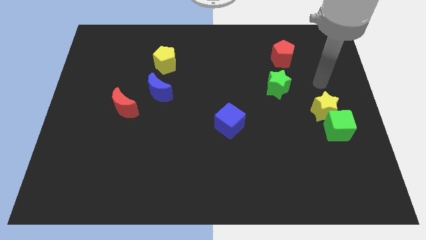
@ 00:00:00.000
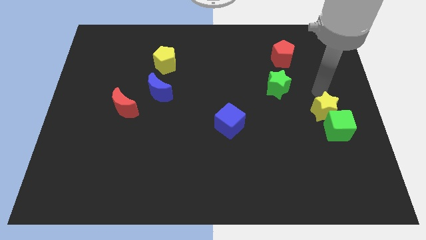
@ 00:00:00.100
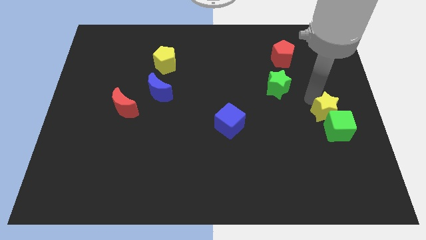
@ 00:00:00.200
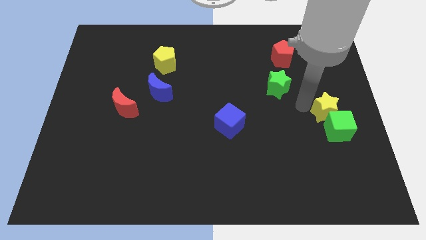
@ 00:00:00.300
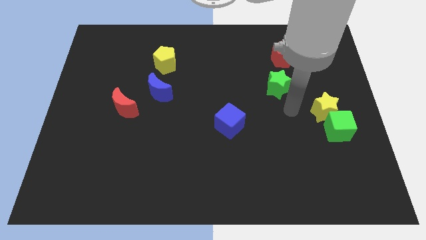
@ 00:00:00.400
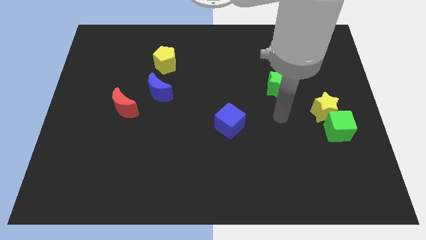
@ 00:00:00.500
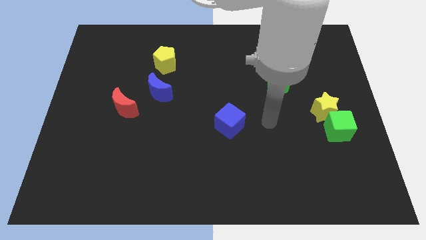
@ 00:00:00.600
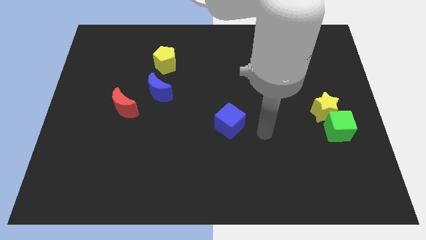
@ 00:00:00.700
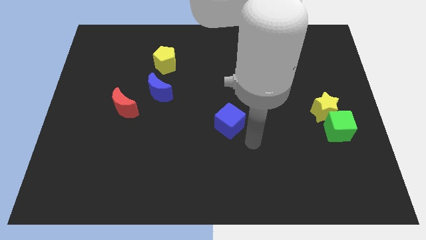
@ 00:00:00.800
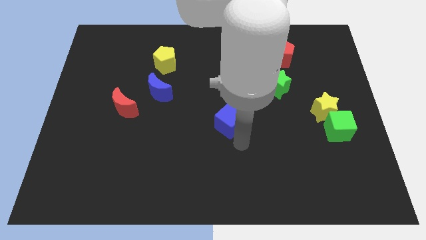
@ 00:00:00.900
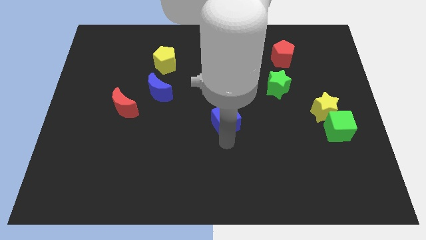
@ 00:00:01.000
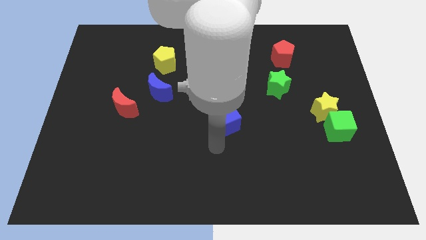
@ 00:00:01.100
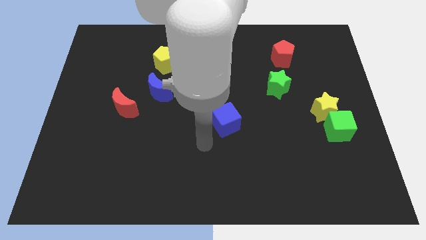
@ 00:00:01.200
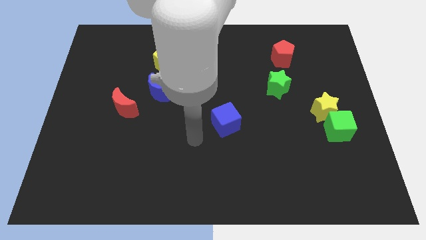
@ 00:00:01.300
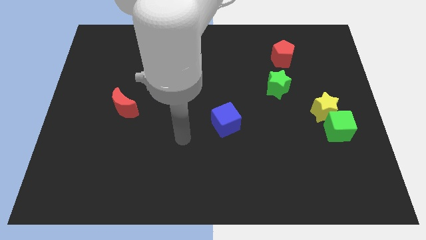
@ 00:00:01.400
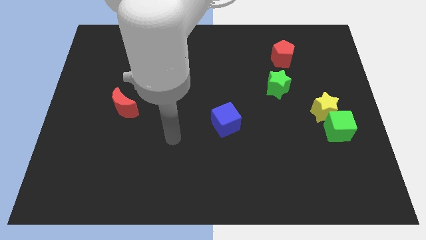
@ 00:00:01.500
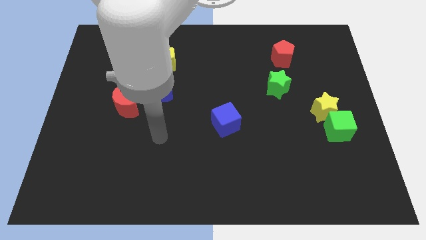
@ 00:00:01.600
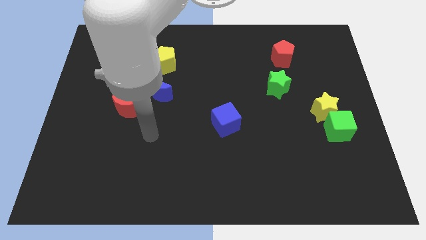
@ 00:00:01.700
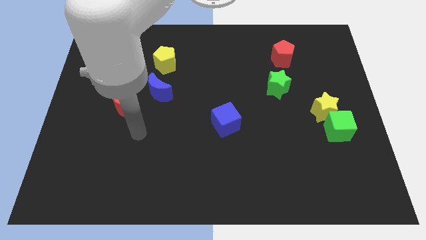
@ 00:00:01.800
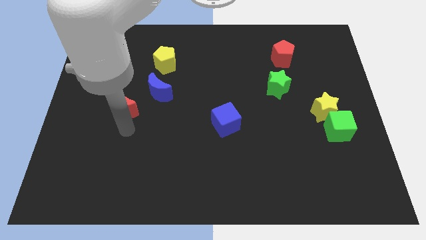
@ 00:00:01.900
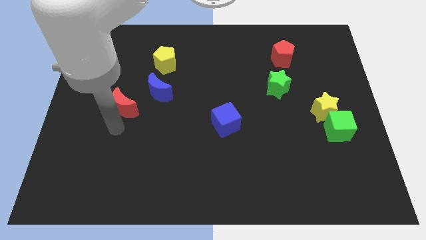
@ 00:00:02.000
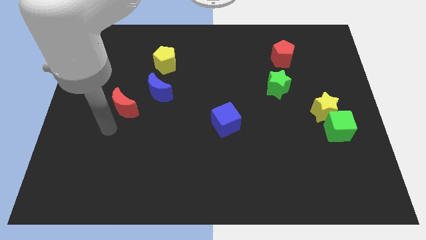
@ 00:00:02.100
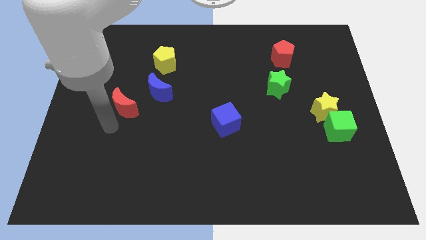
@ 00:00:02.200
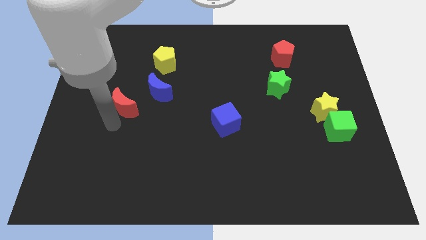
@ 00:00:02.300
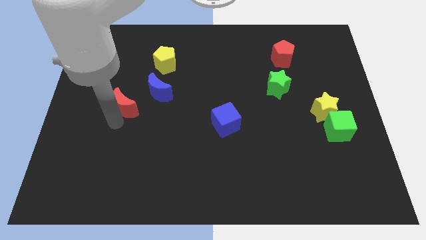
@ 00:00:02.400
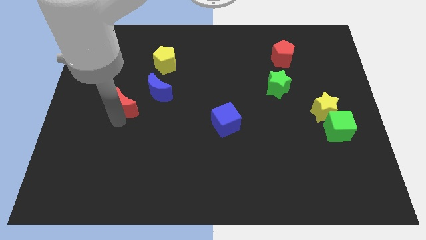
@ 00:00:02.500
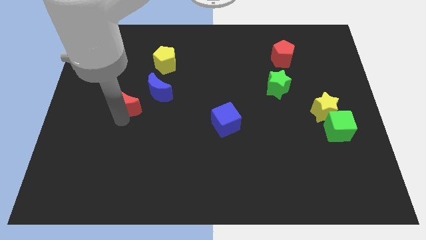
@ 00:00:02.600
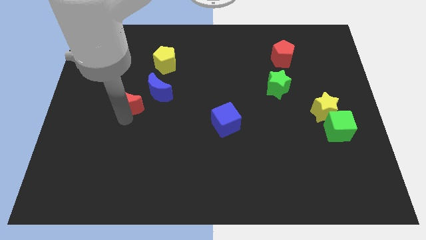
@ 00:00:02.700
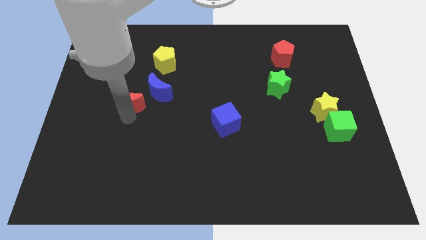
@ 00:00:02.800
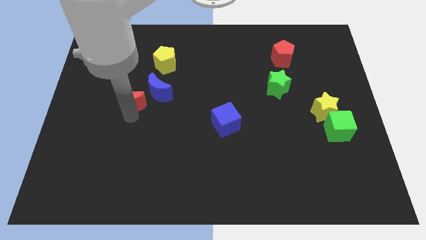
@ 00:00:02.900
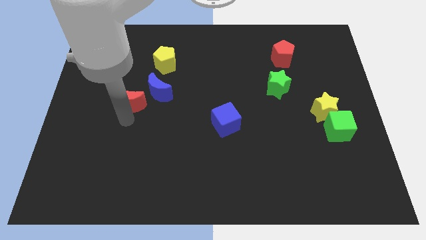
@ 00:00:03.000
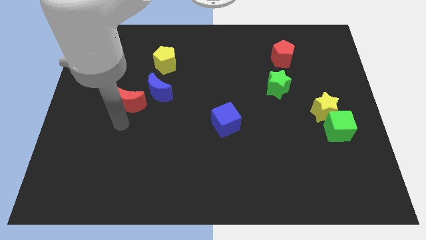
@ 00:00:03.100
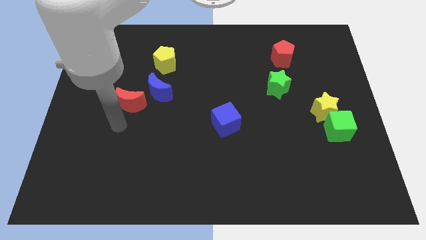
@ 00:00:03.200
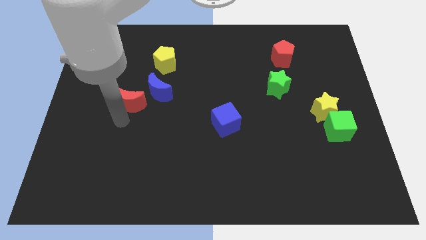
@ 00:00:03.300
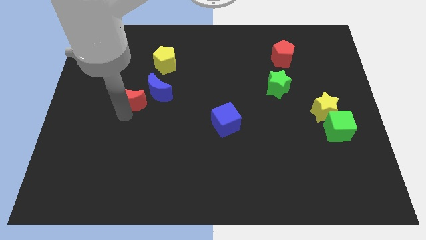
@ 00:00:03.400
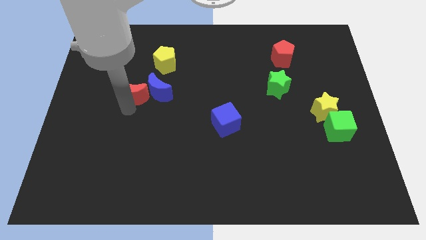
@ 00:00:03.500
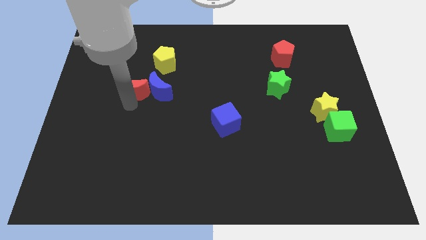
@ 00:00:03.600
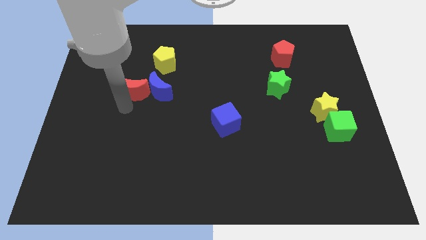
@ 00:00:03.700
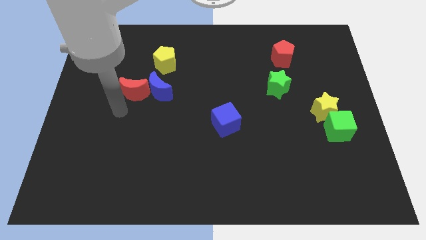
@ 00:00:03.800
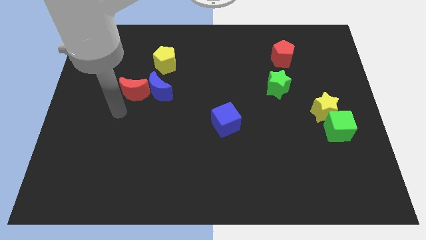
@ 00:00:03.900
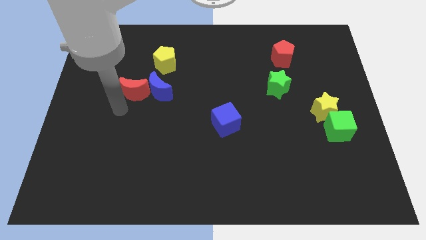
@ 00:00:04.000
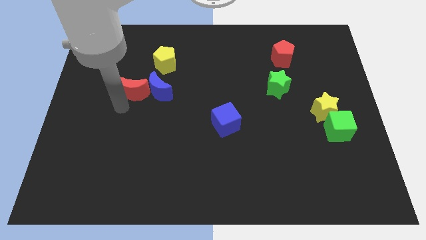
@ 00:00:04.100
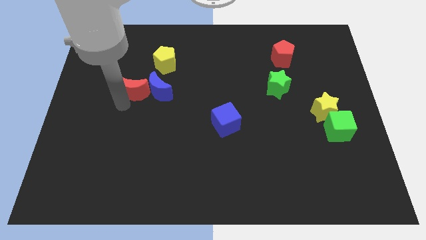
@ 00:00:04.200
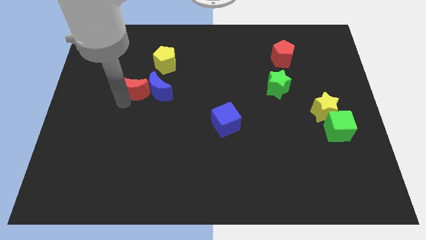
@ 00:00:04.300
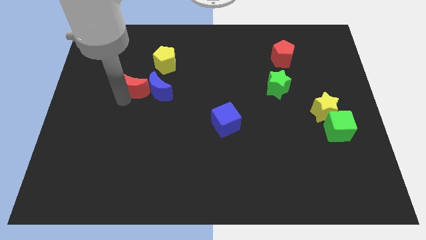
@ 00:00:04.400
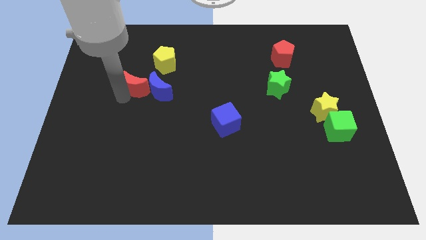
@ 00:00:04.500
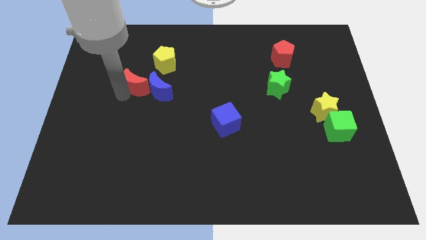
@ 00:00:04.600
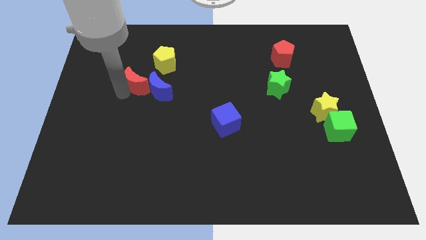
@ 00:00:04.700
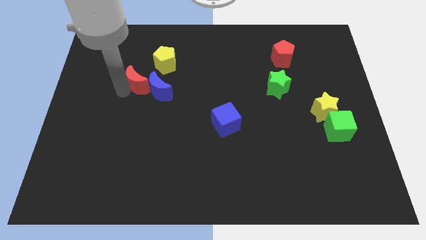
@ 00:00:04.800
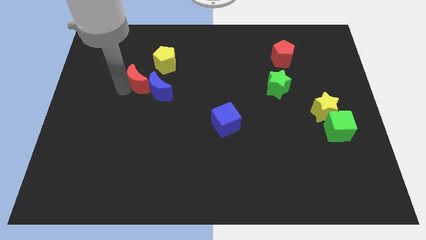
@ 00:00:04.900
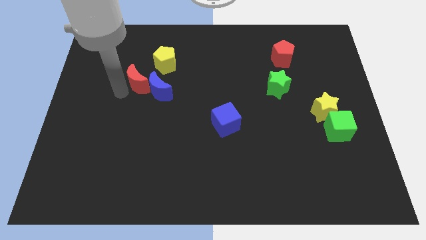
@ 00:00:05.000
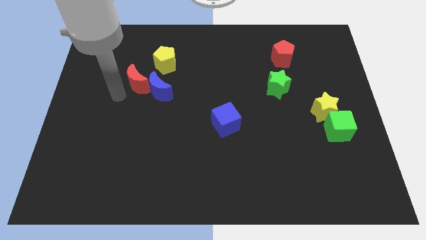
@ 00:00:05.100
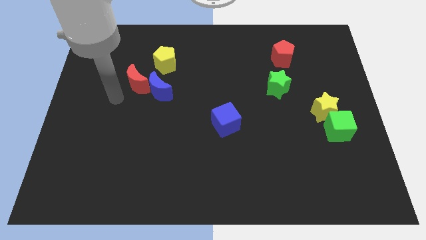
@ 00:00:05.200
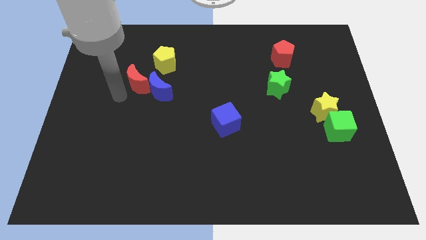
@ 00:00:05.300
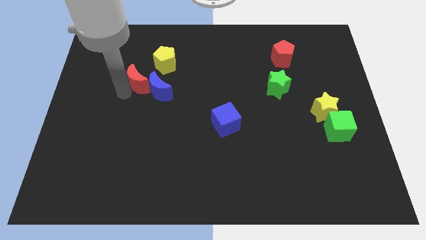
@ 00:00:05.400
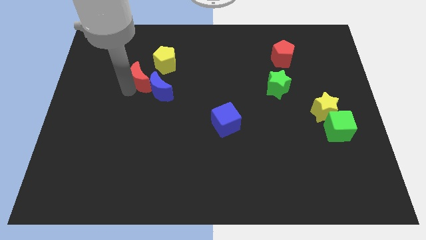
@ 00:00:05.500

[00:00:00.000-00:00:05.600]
move the red moon up and to the right diagonally slightly

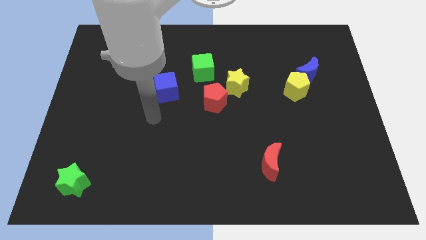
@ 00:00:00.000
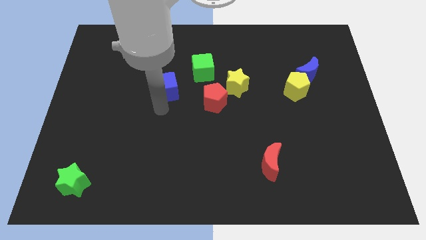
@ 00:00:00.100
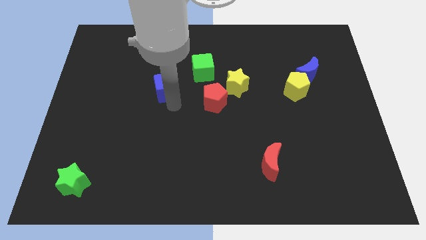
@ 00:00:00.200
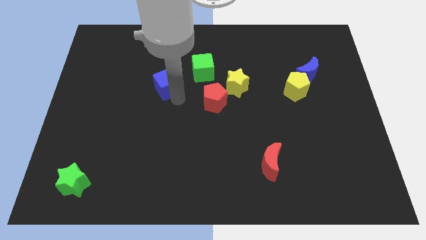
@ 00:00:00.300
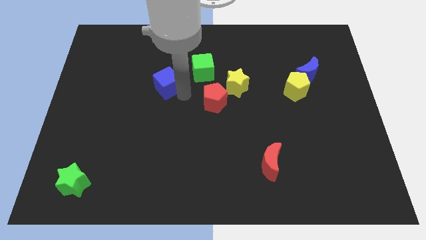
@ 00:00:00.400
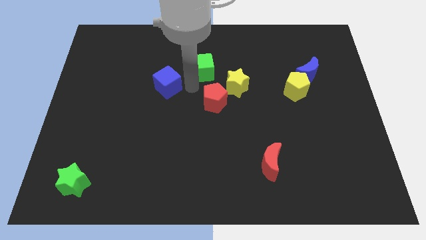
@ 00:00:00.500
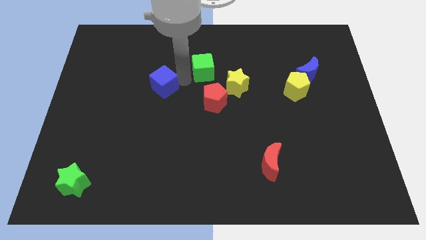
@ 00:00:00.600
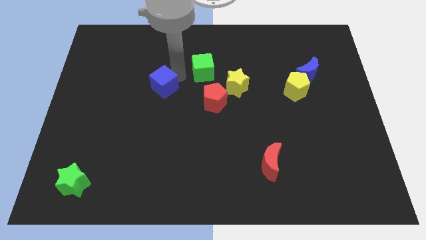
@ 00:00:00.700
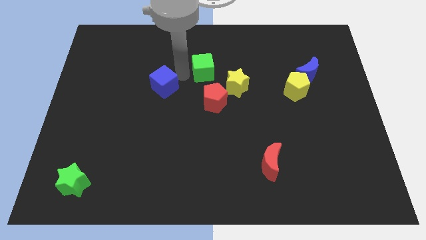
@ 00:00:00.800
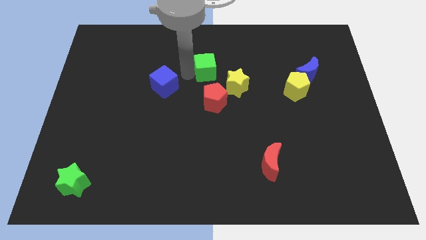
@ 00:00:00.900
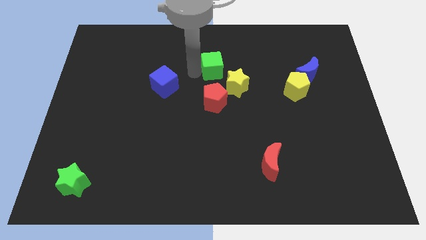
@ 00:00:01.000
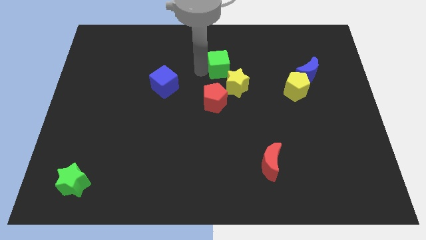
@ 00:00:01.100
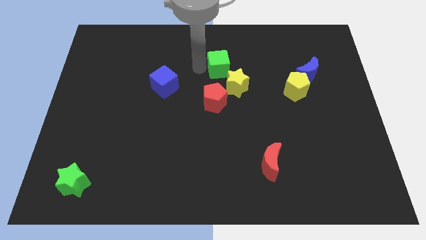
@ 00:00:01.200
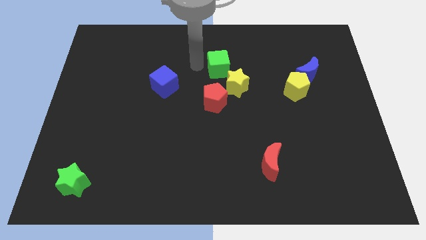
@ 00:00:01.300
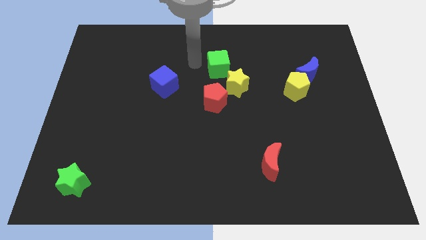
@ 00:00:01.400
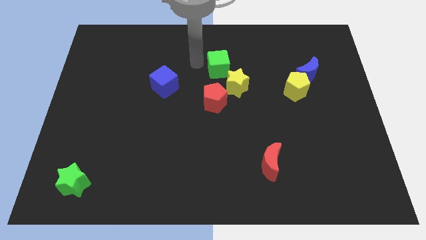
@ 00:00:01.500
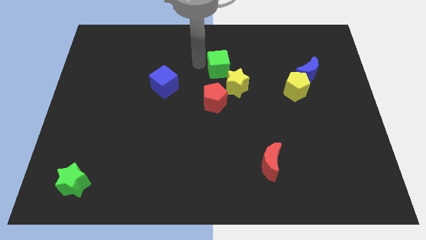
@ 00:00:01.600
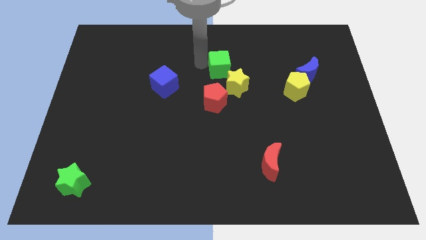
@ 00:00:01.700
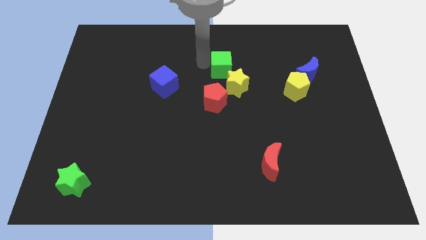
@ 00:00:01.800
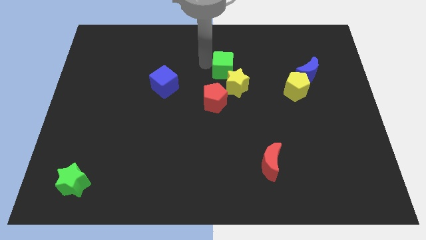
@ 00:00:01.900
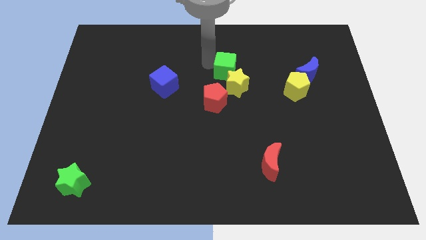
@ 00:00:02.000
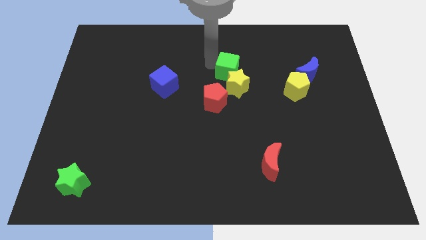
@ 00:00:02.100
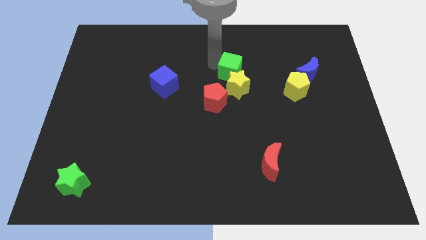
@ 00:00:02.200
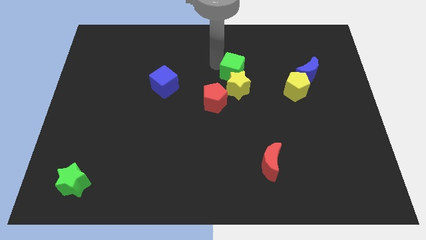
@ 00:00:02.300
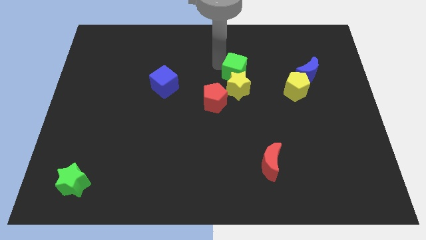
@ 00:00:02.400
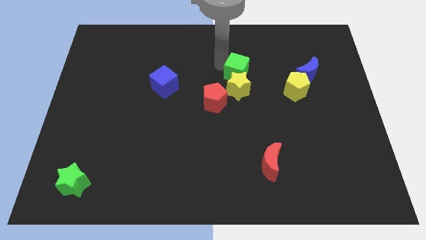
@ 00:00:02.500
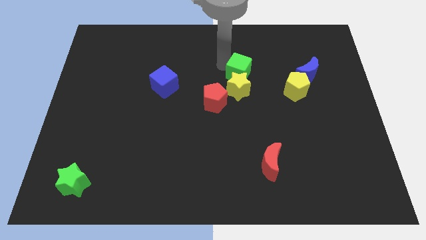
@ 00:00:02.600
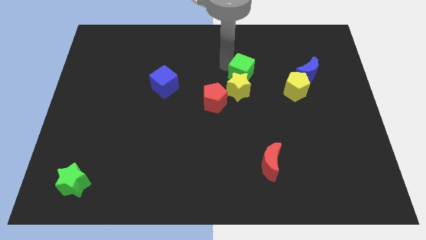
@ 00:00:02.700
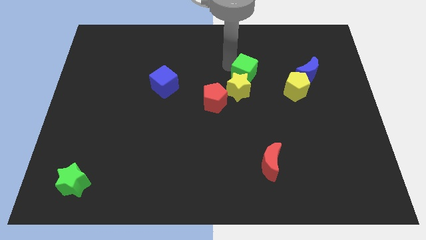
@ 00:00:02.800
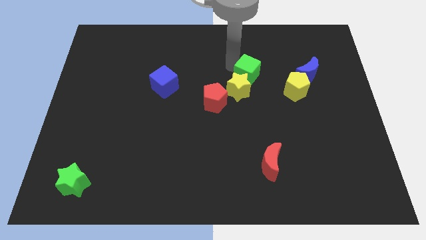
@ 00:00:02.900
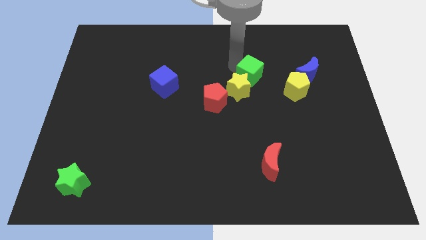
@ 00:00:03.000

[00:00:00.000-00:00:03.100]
slightly slide the green cube down and to the right
